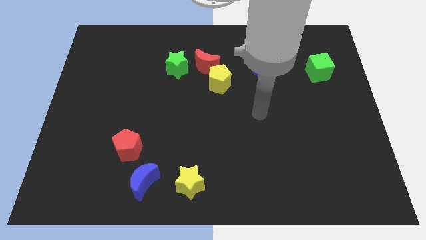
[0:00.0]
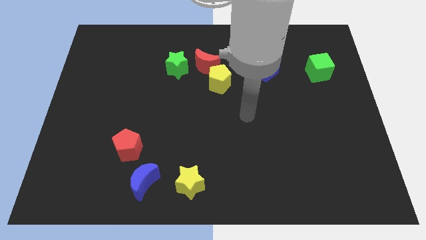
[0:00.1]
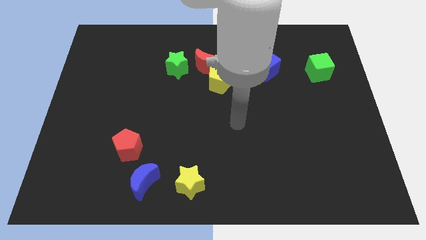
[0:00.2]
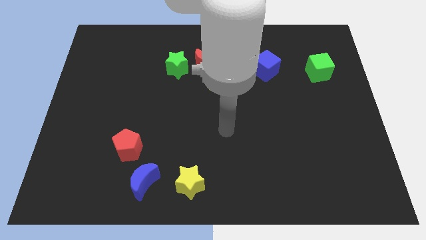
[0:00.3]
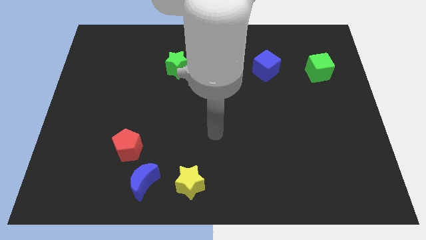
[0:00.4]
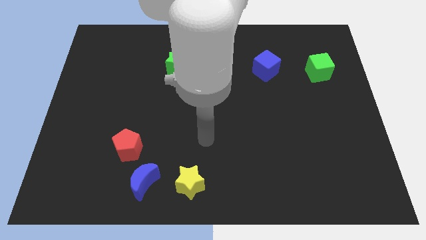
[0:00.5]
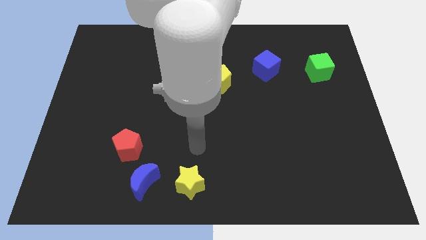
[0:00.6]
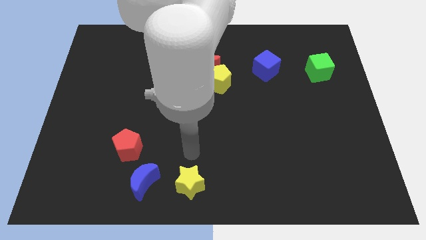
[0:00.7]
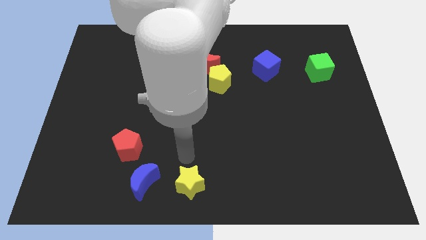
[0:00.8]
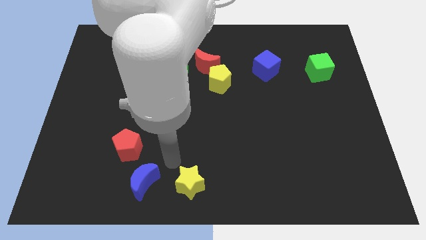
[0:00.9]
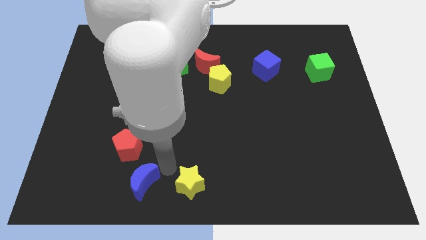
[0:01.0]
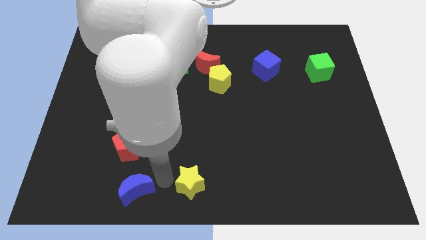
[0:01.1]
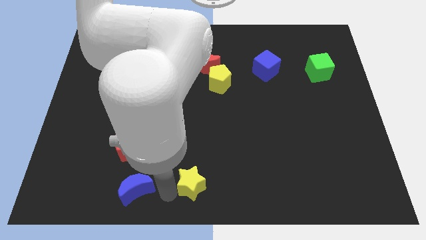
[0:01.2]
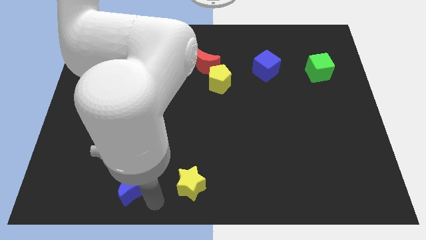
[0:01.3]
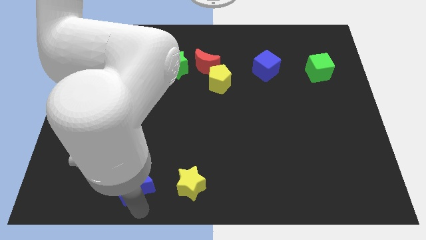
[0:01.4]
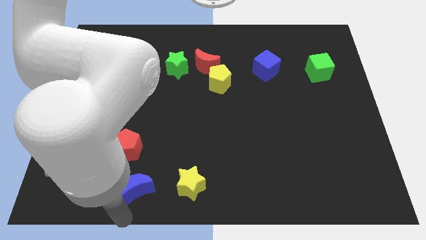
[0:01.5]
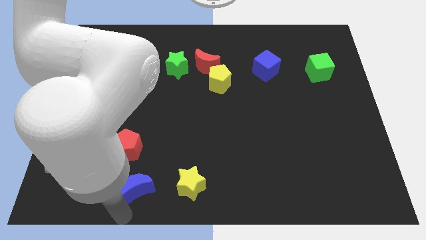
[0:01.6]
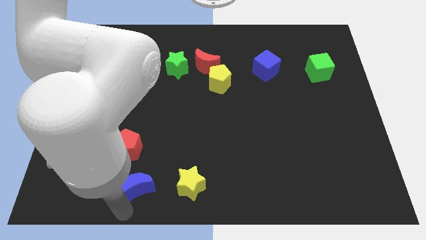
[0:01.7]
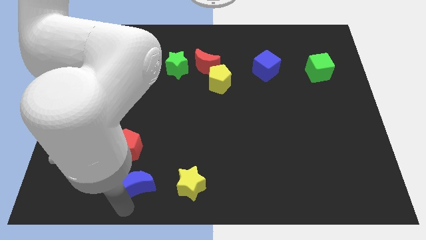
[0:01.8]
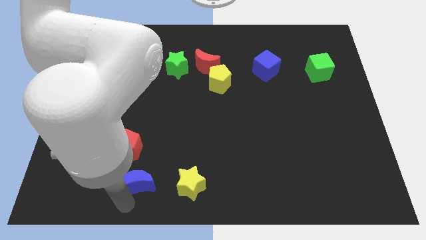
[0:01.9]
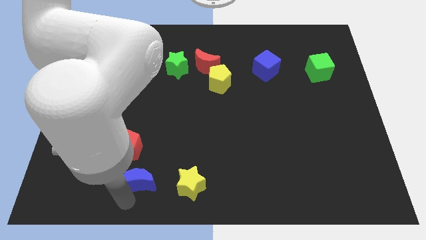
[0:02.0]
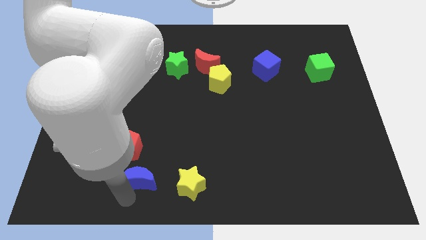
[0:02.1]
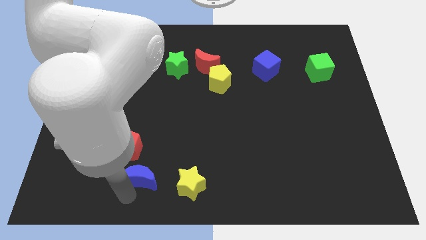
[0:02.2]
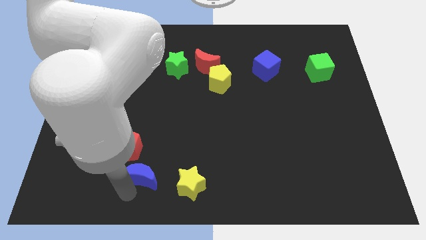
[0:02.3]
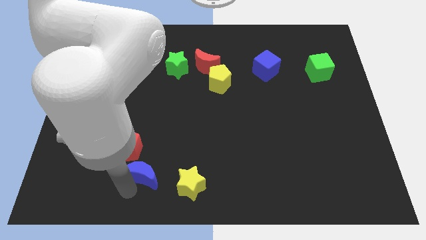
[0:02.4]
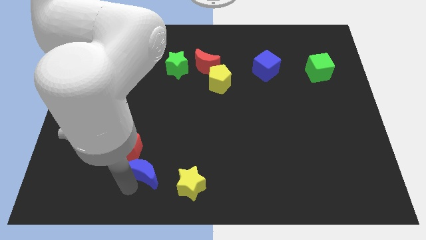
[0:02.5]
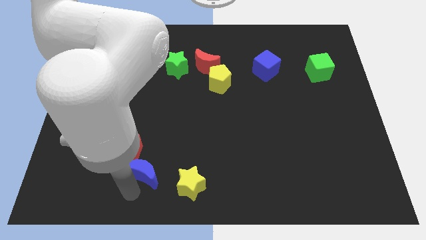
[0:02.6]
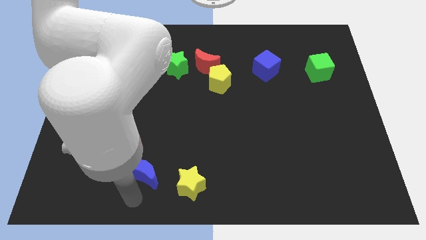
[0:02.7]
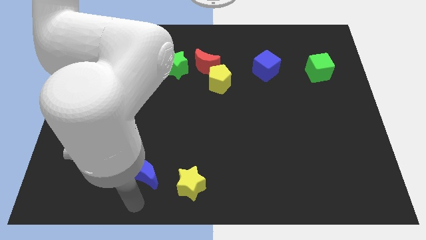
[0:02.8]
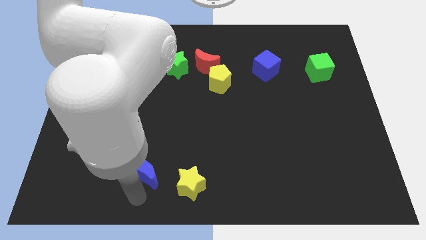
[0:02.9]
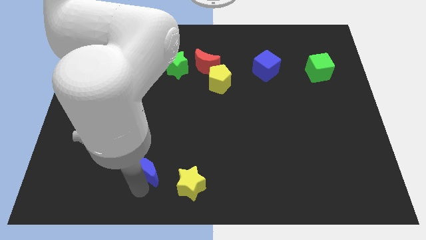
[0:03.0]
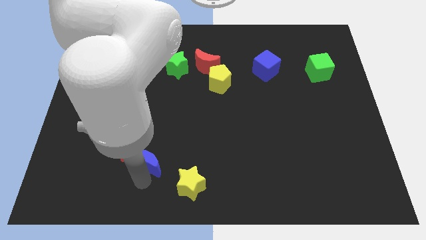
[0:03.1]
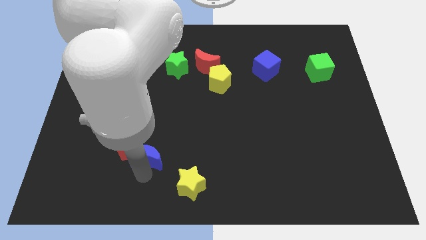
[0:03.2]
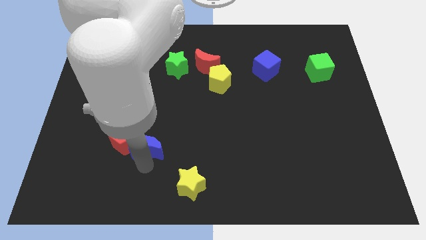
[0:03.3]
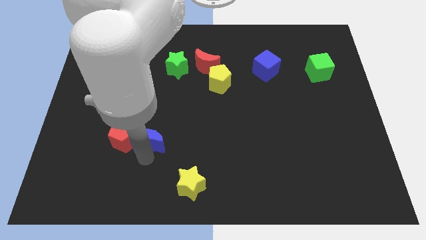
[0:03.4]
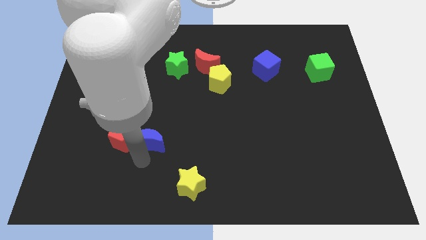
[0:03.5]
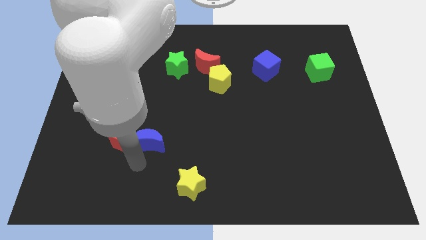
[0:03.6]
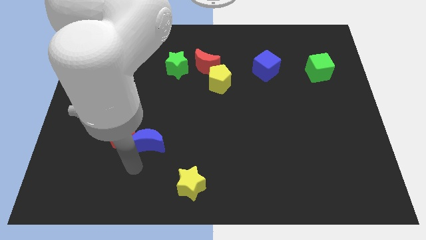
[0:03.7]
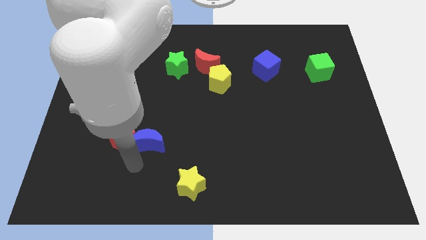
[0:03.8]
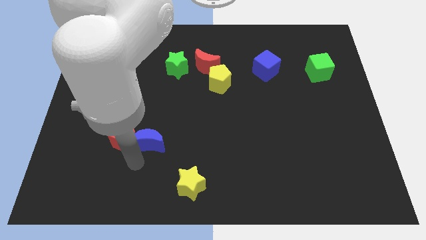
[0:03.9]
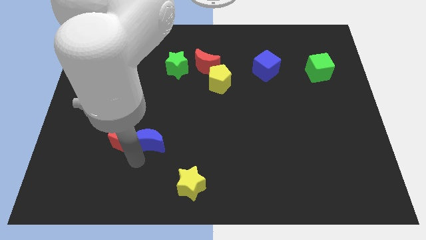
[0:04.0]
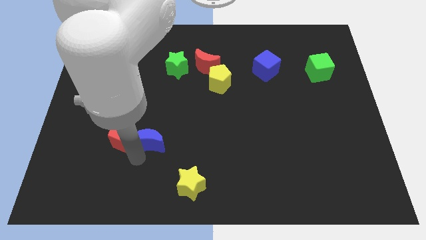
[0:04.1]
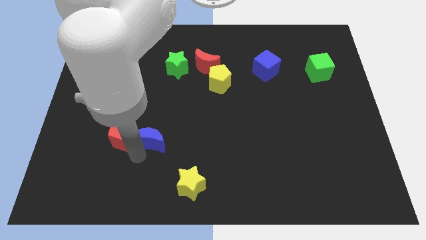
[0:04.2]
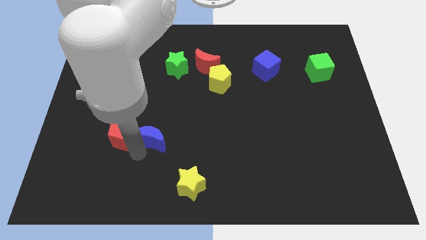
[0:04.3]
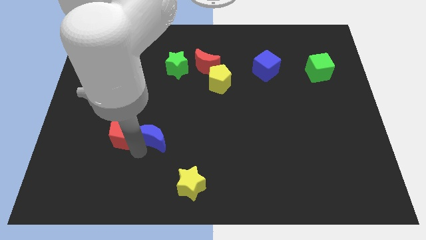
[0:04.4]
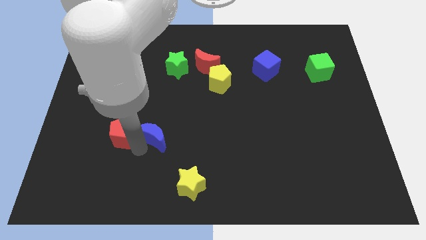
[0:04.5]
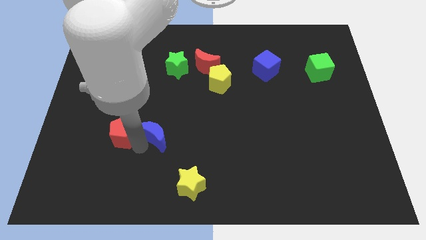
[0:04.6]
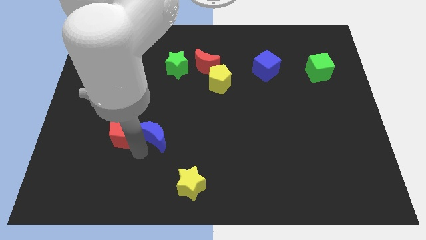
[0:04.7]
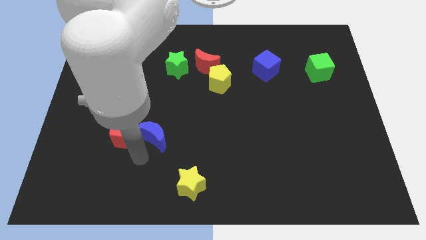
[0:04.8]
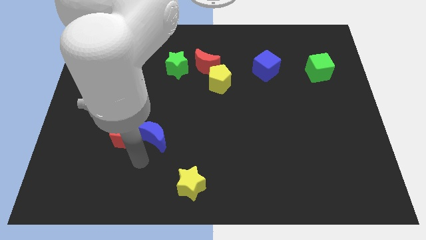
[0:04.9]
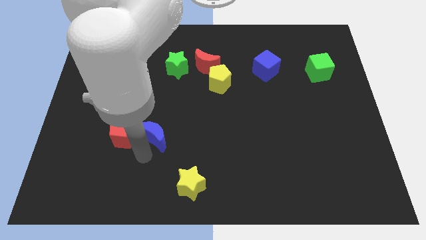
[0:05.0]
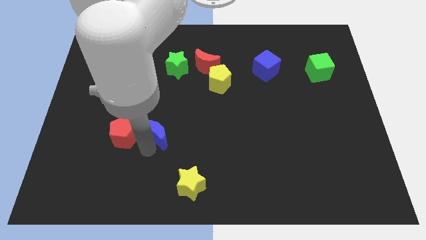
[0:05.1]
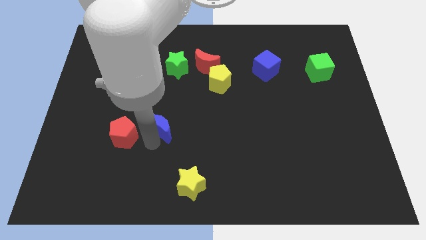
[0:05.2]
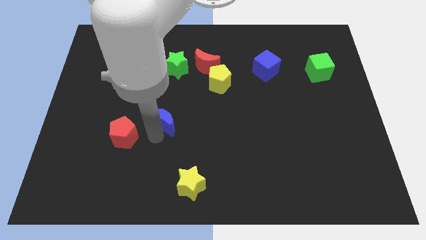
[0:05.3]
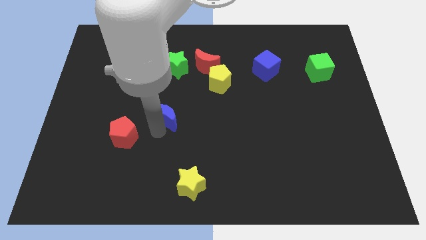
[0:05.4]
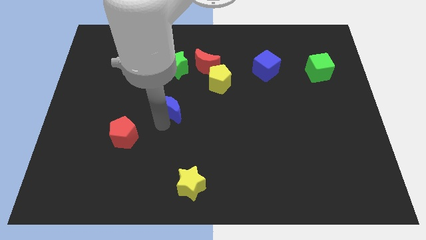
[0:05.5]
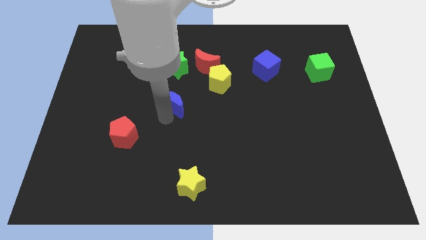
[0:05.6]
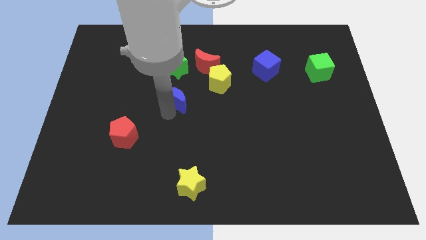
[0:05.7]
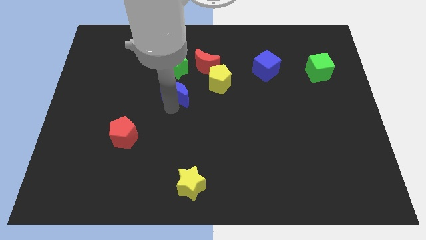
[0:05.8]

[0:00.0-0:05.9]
push the blue moon to the bottom left of the red moon

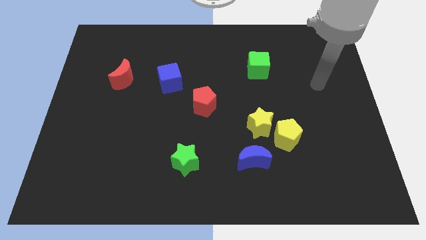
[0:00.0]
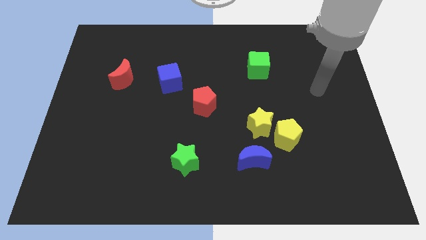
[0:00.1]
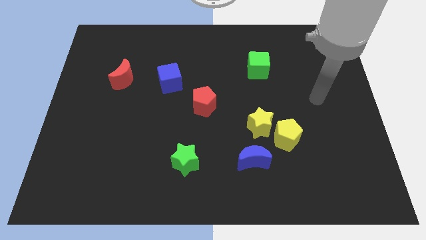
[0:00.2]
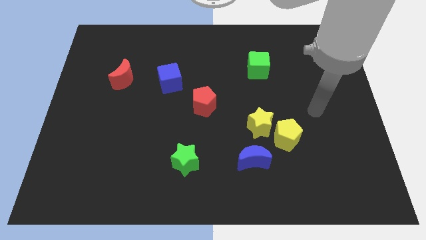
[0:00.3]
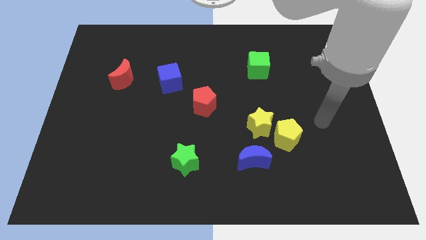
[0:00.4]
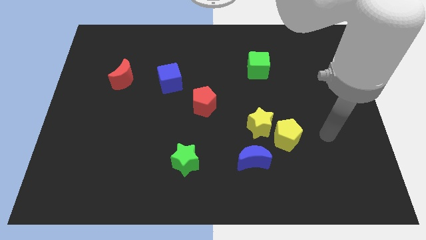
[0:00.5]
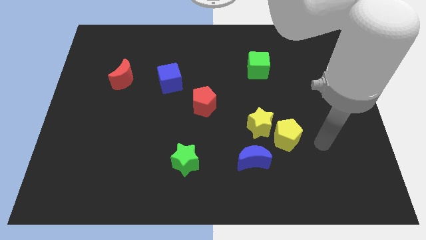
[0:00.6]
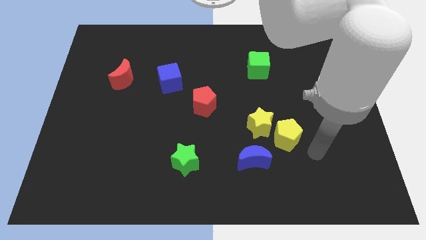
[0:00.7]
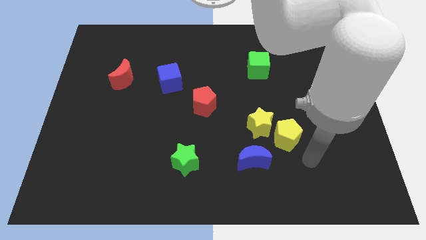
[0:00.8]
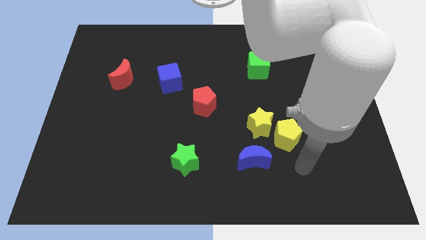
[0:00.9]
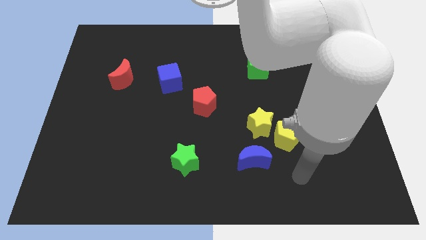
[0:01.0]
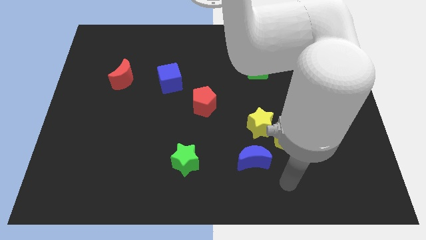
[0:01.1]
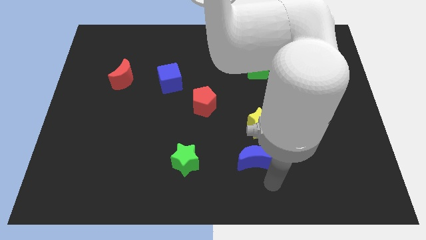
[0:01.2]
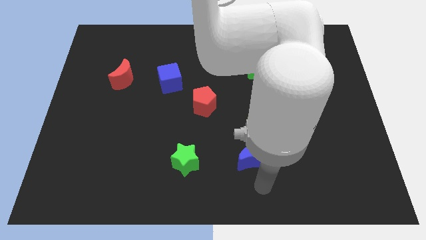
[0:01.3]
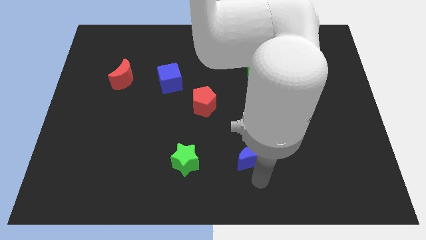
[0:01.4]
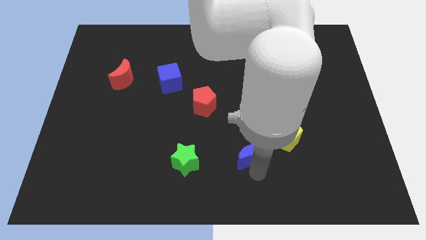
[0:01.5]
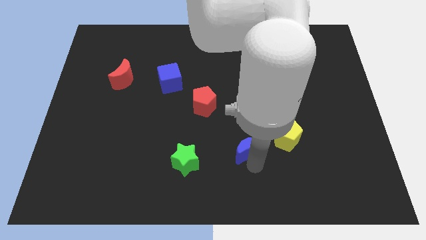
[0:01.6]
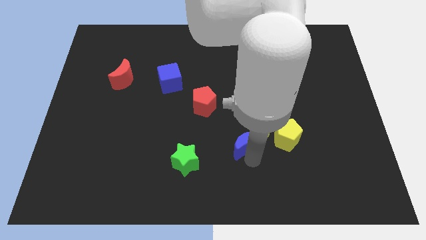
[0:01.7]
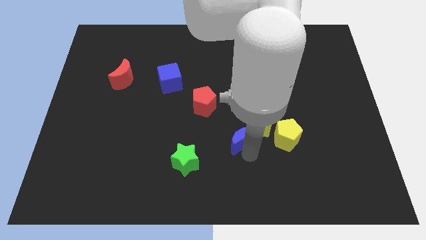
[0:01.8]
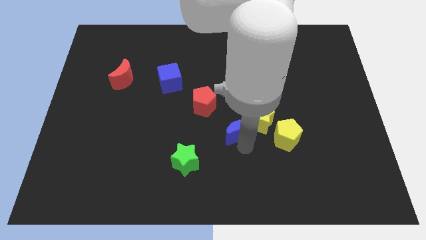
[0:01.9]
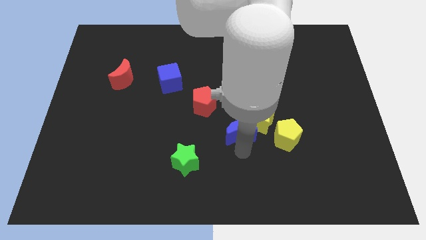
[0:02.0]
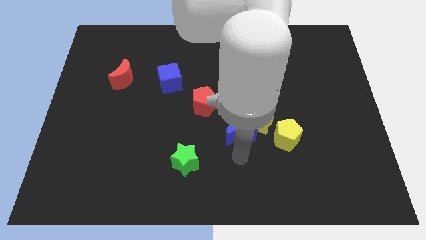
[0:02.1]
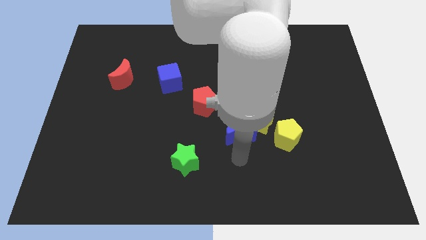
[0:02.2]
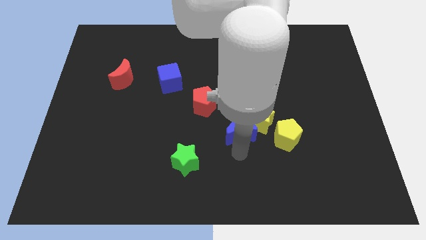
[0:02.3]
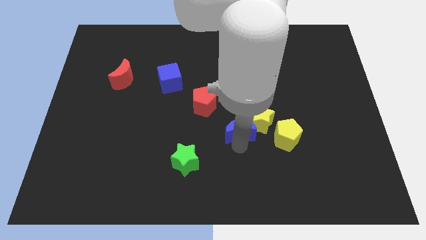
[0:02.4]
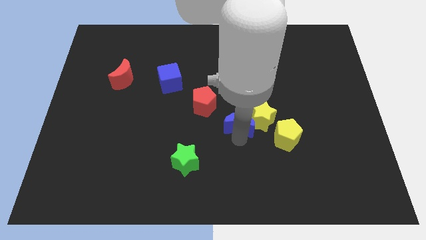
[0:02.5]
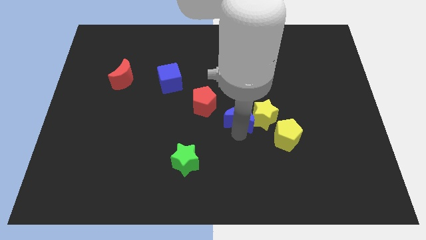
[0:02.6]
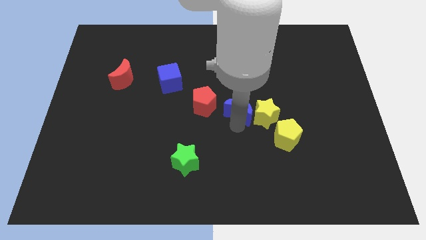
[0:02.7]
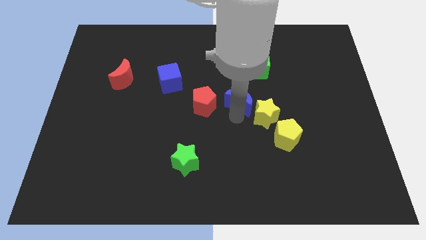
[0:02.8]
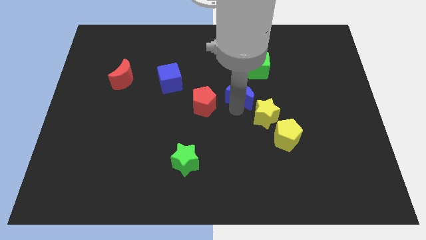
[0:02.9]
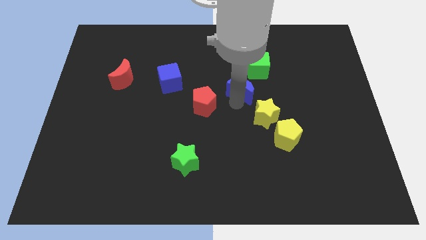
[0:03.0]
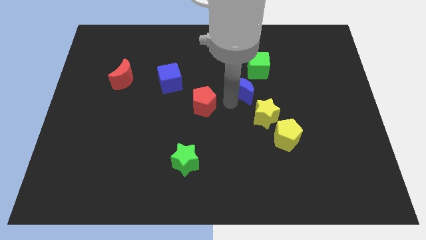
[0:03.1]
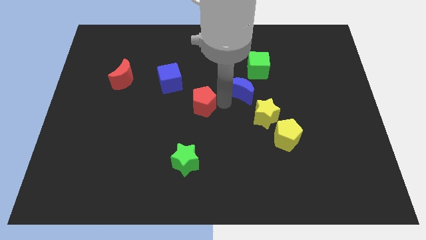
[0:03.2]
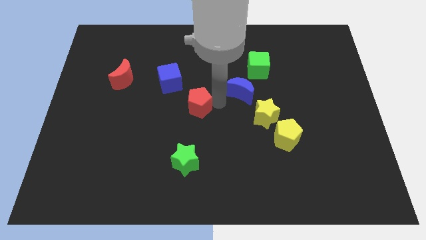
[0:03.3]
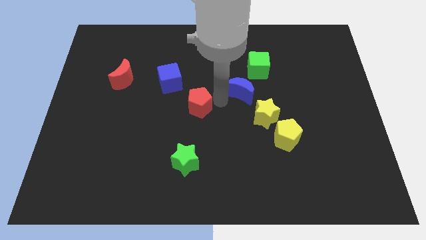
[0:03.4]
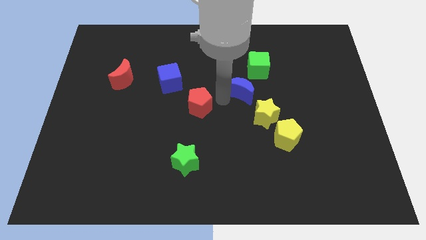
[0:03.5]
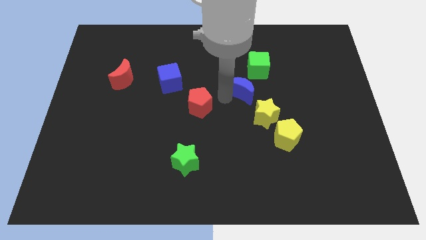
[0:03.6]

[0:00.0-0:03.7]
move the blue moon above the yellow star
